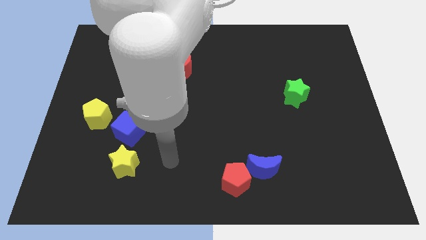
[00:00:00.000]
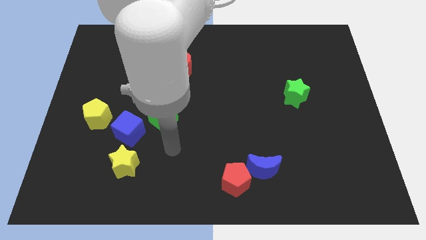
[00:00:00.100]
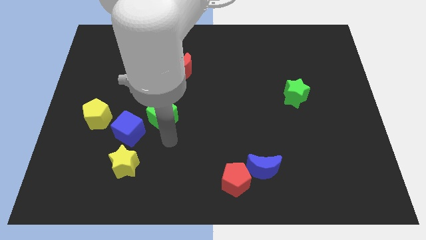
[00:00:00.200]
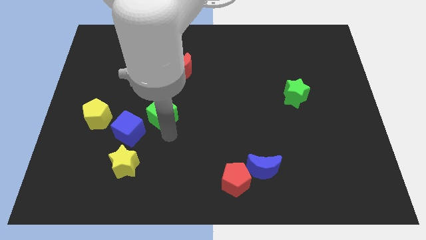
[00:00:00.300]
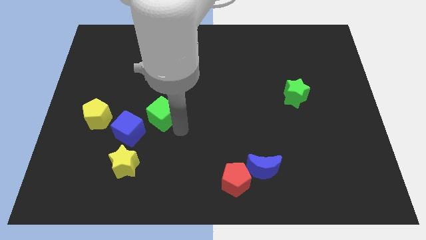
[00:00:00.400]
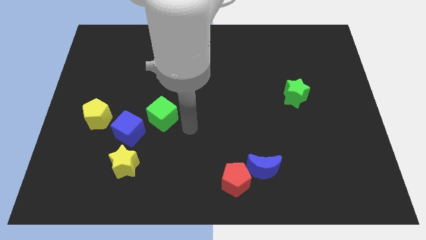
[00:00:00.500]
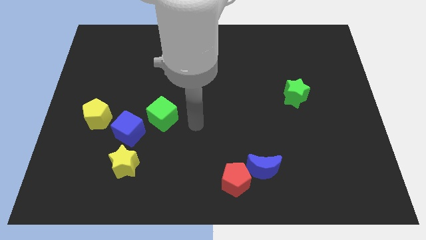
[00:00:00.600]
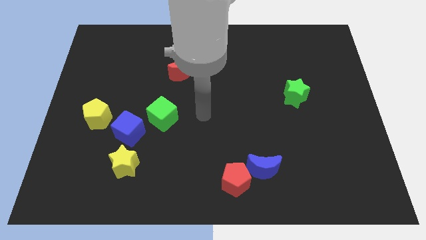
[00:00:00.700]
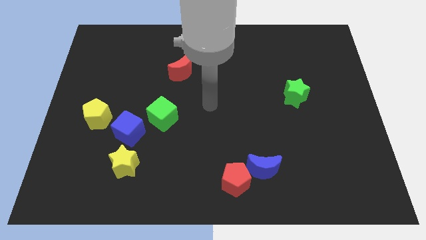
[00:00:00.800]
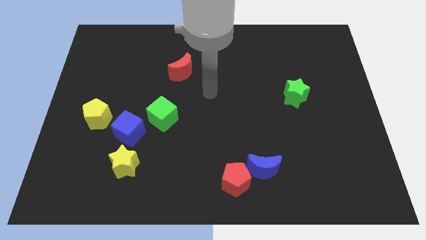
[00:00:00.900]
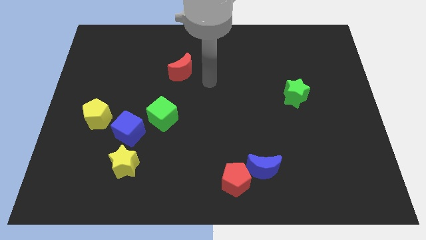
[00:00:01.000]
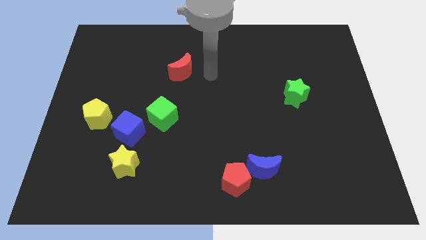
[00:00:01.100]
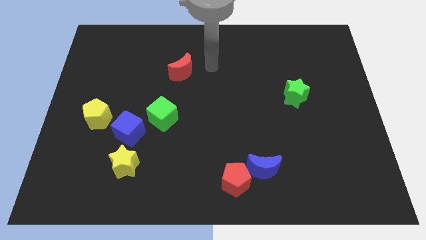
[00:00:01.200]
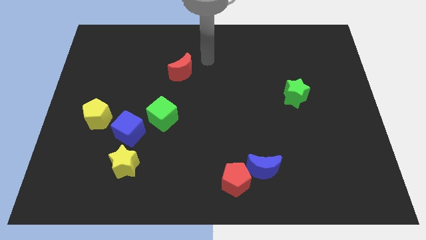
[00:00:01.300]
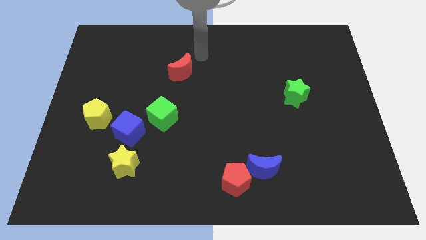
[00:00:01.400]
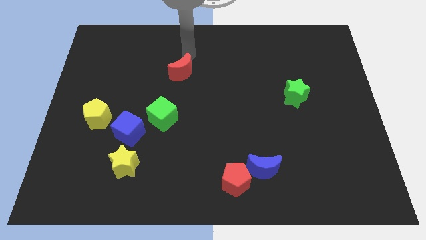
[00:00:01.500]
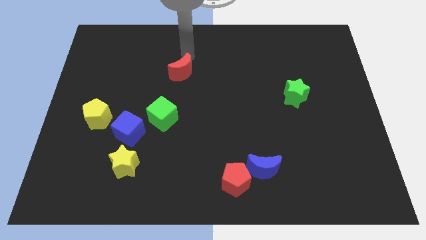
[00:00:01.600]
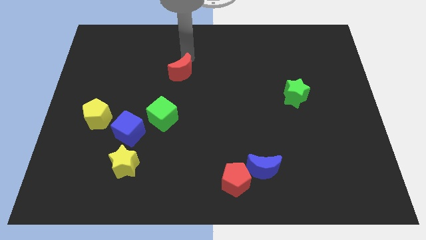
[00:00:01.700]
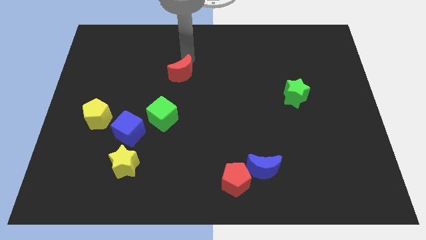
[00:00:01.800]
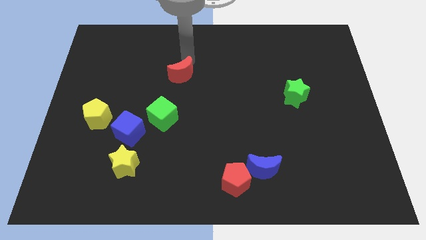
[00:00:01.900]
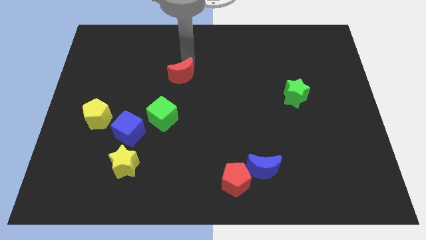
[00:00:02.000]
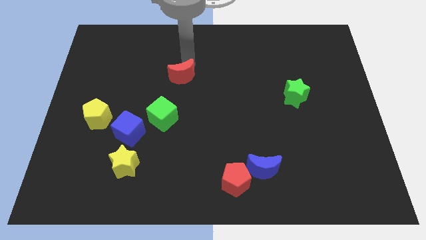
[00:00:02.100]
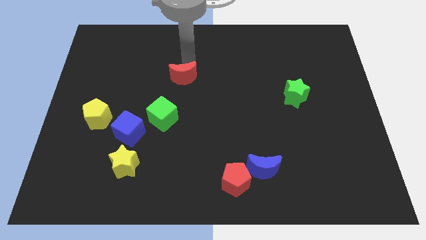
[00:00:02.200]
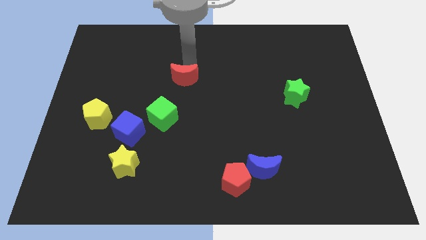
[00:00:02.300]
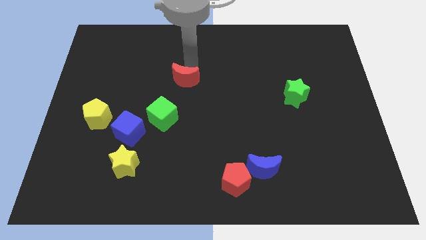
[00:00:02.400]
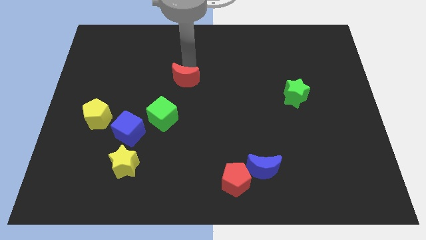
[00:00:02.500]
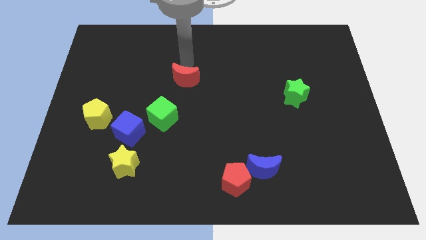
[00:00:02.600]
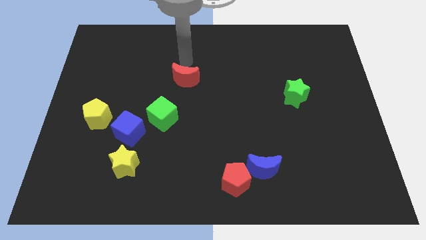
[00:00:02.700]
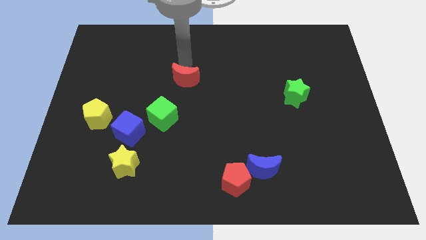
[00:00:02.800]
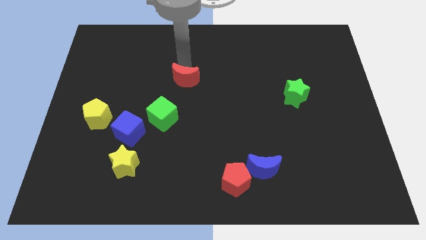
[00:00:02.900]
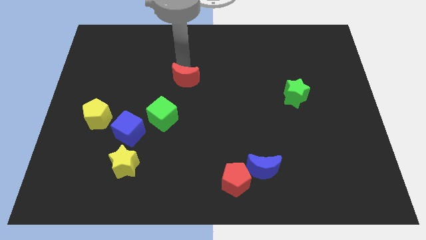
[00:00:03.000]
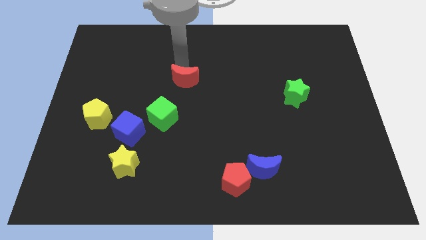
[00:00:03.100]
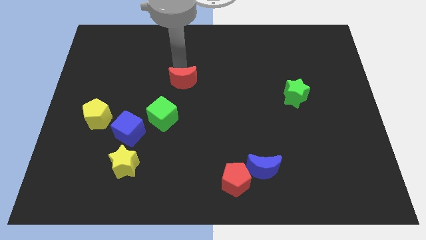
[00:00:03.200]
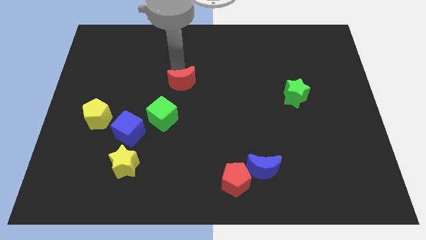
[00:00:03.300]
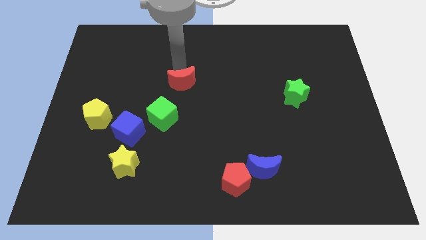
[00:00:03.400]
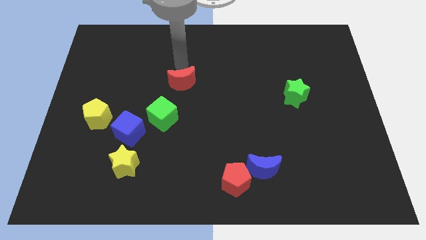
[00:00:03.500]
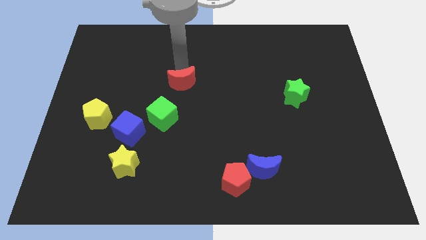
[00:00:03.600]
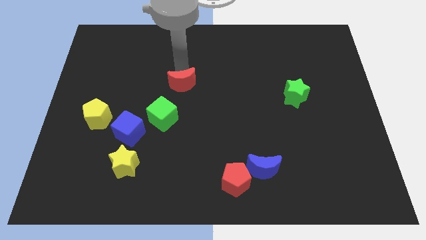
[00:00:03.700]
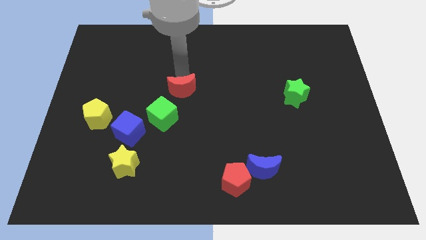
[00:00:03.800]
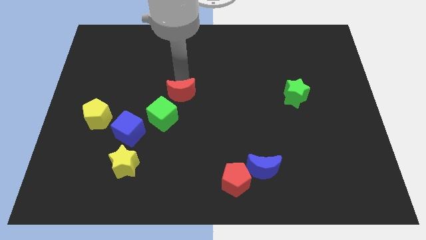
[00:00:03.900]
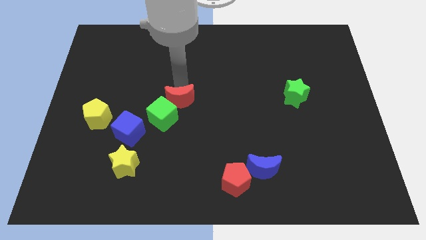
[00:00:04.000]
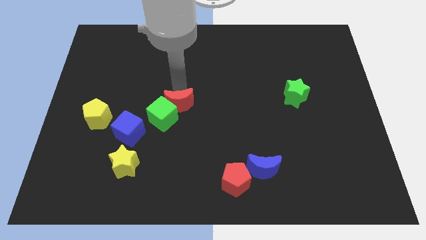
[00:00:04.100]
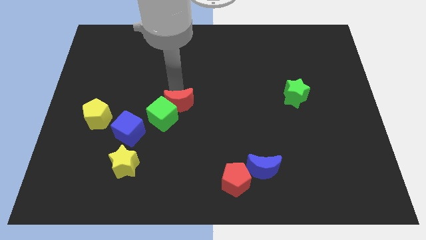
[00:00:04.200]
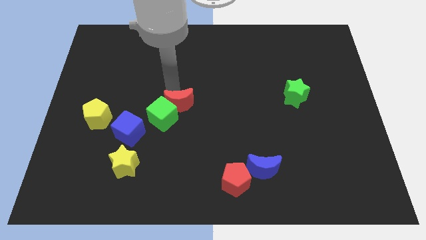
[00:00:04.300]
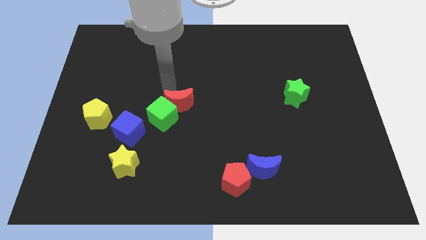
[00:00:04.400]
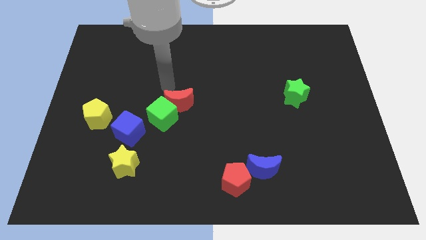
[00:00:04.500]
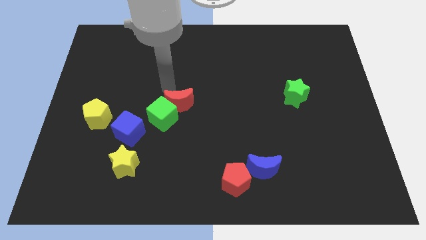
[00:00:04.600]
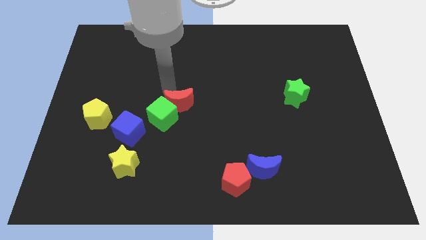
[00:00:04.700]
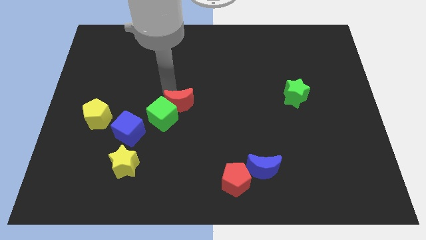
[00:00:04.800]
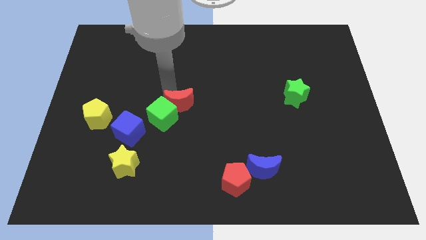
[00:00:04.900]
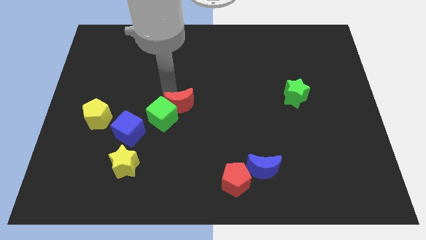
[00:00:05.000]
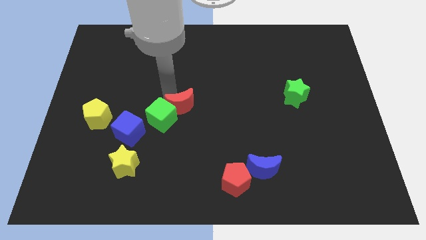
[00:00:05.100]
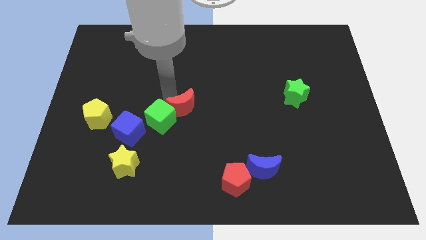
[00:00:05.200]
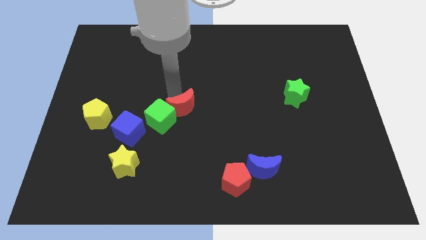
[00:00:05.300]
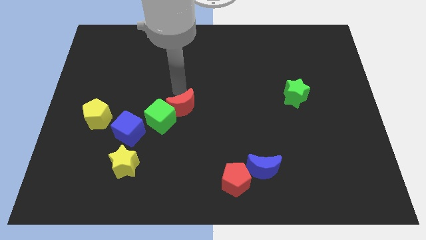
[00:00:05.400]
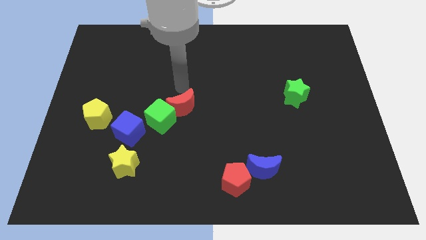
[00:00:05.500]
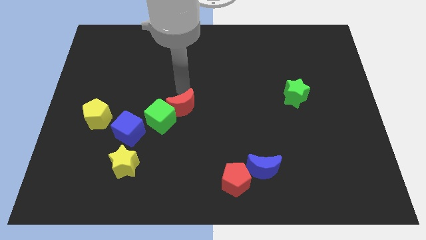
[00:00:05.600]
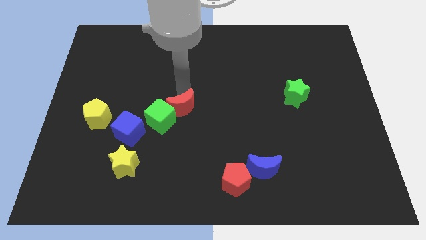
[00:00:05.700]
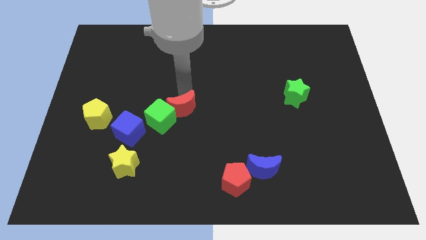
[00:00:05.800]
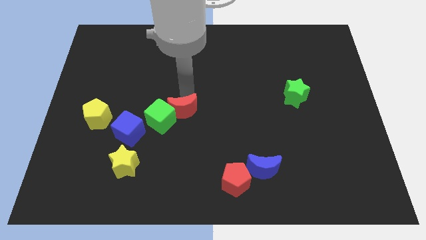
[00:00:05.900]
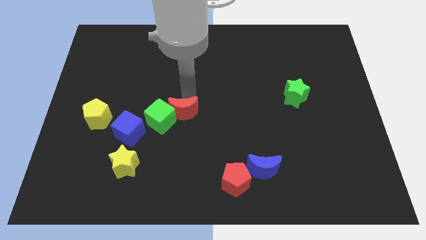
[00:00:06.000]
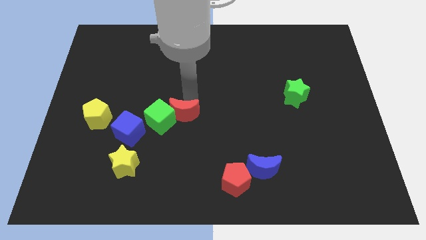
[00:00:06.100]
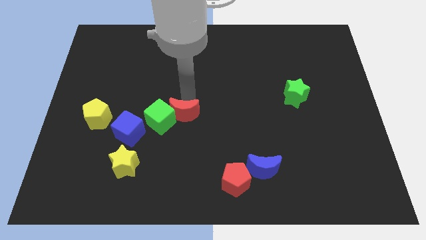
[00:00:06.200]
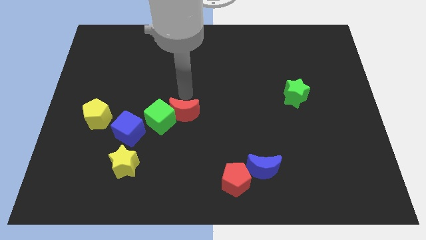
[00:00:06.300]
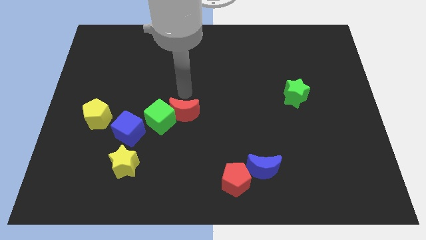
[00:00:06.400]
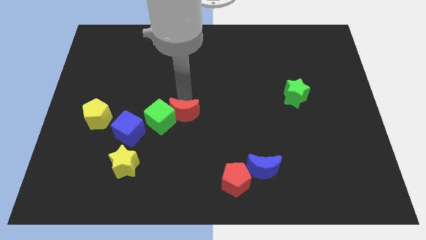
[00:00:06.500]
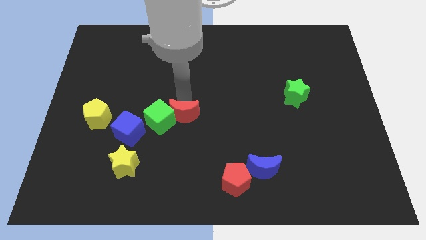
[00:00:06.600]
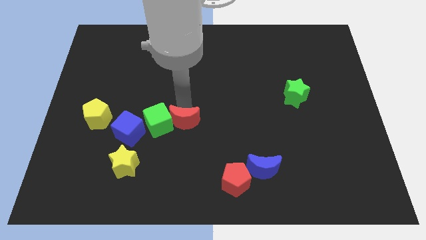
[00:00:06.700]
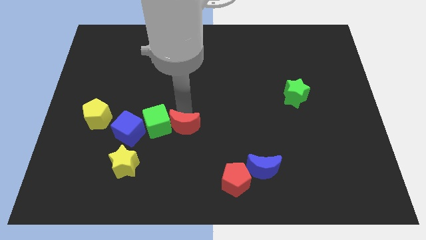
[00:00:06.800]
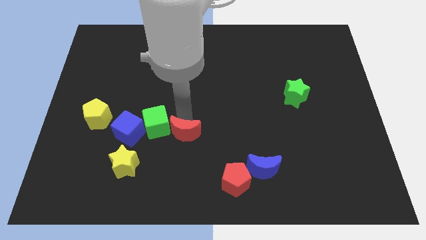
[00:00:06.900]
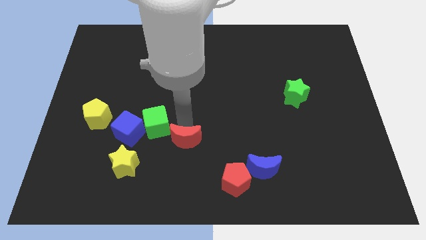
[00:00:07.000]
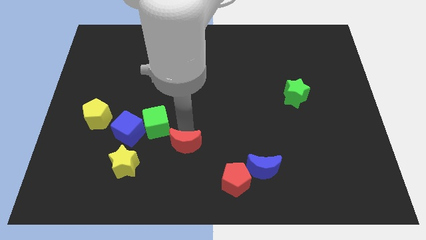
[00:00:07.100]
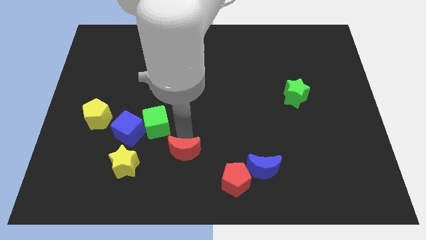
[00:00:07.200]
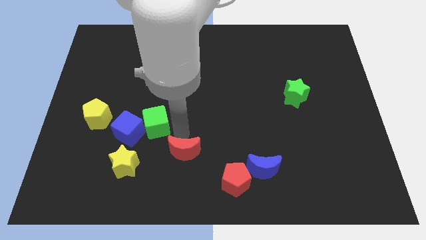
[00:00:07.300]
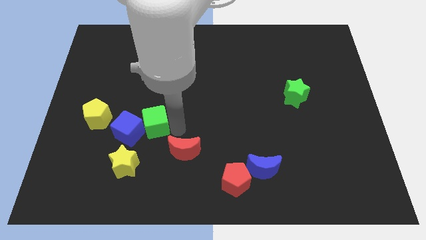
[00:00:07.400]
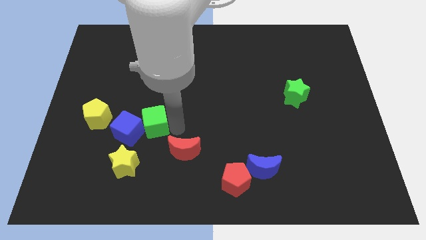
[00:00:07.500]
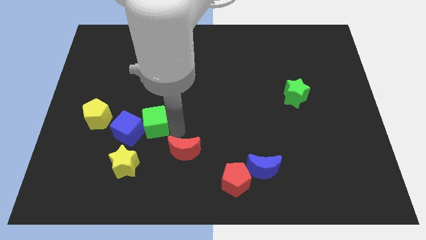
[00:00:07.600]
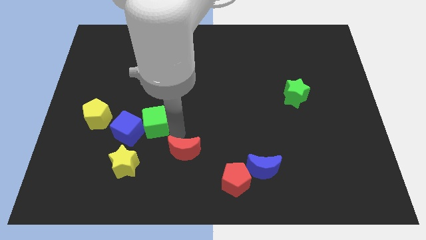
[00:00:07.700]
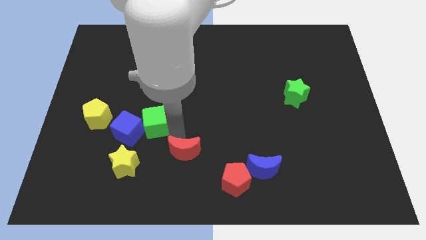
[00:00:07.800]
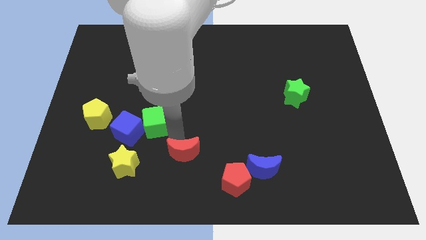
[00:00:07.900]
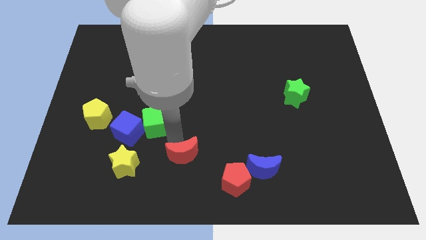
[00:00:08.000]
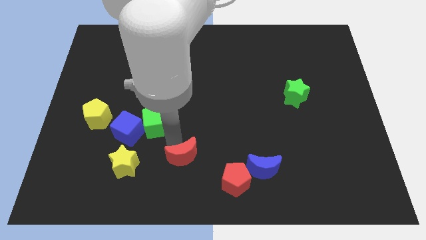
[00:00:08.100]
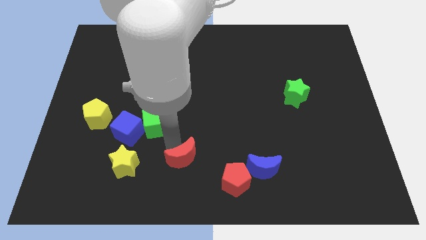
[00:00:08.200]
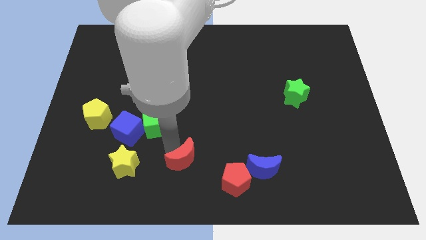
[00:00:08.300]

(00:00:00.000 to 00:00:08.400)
move the red moon to the bottom
